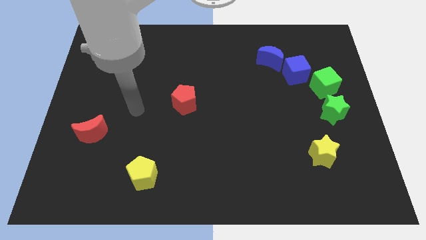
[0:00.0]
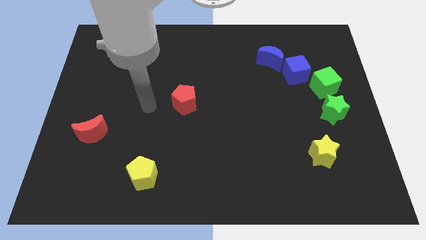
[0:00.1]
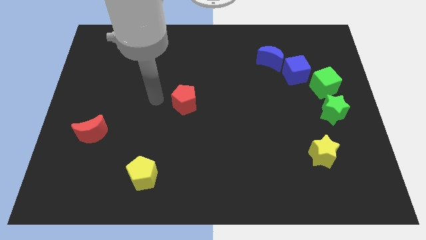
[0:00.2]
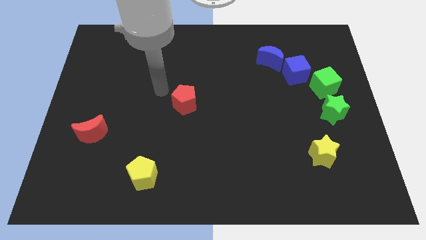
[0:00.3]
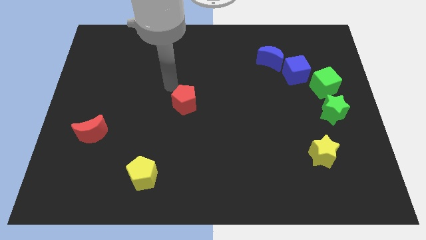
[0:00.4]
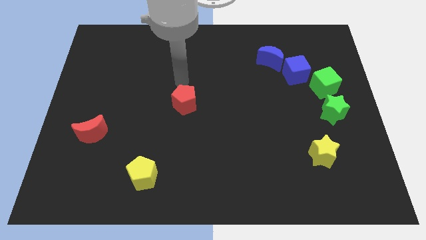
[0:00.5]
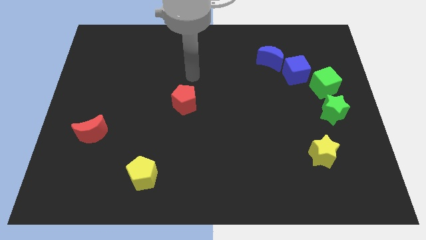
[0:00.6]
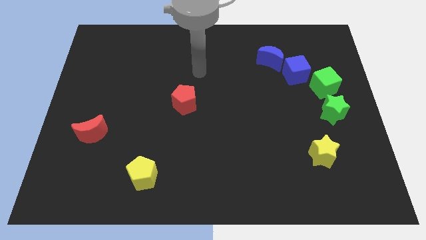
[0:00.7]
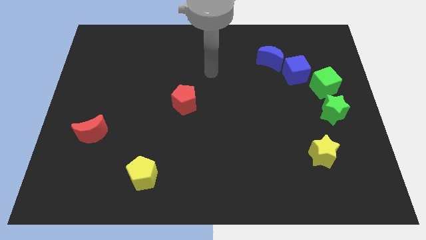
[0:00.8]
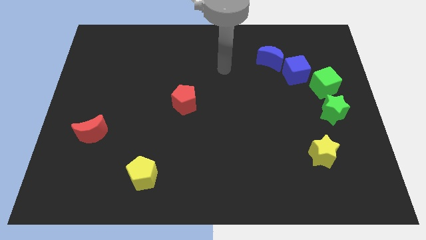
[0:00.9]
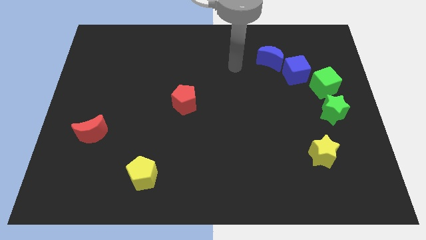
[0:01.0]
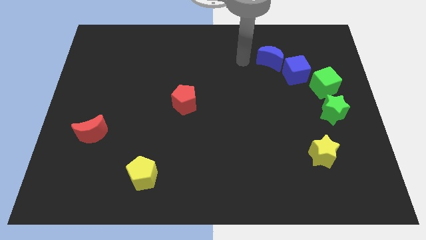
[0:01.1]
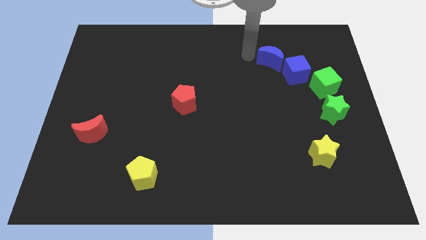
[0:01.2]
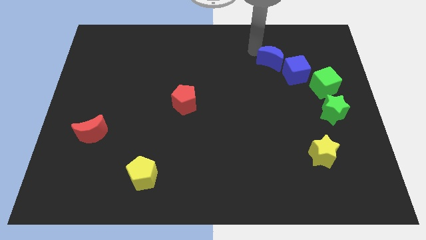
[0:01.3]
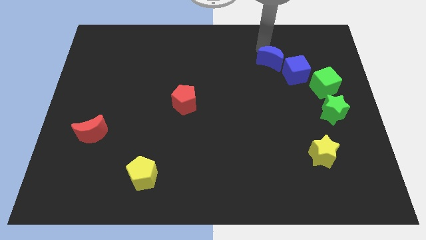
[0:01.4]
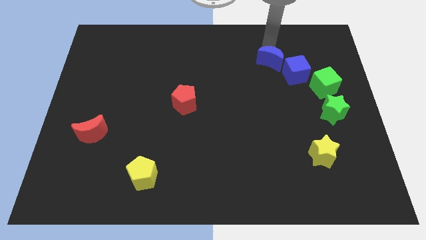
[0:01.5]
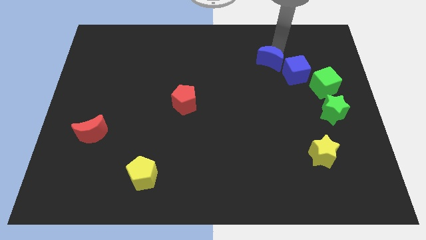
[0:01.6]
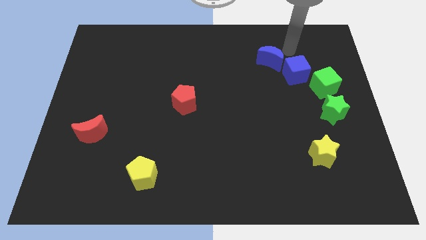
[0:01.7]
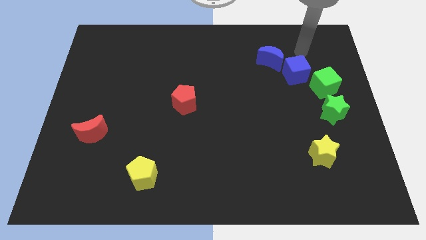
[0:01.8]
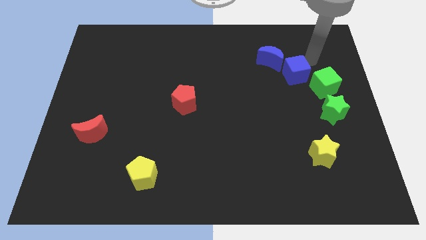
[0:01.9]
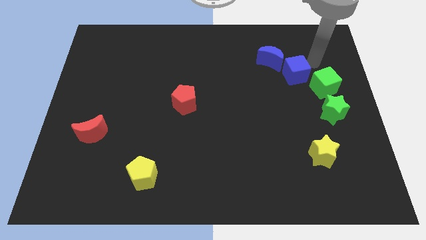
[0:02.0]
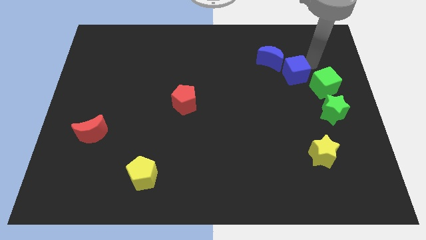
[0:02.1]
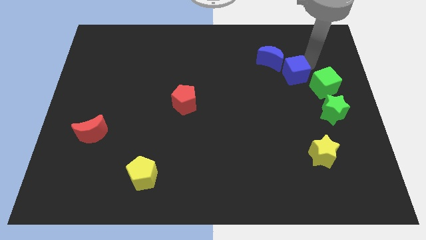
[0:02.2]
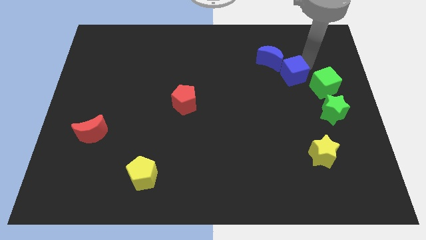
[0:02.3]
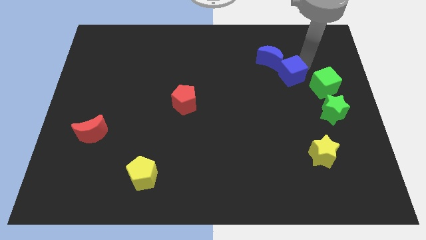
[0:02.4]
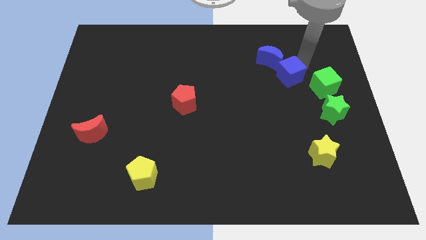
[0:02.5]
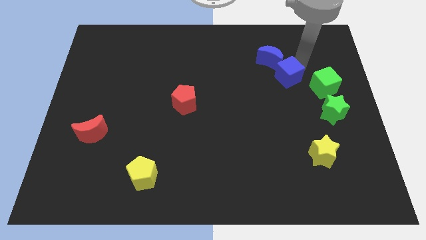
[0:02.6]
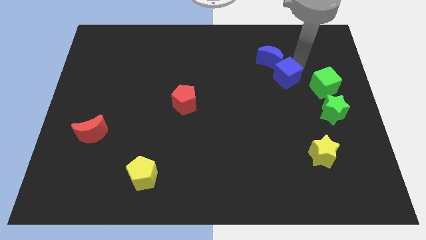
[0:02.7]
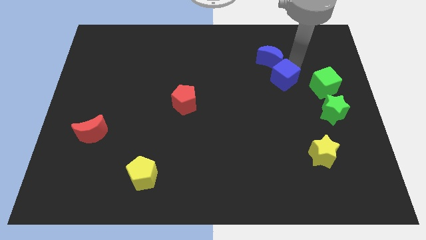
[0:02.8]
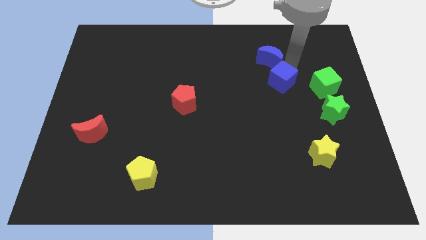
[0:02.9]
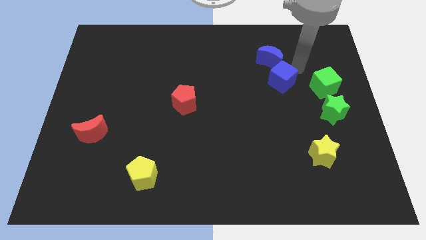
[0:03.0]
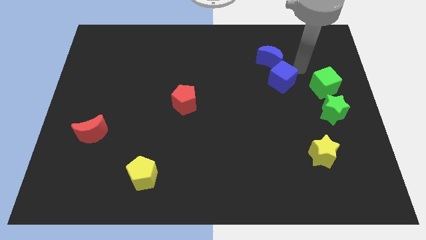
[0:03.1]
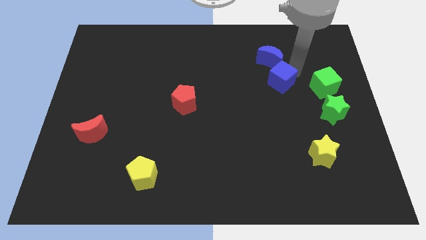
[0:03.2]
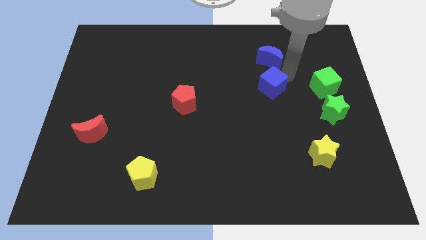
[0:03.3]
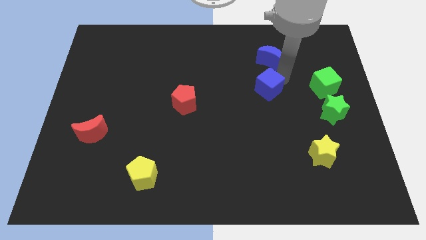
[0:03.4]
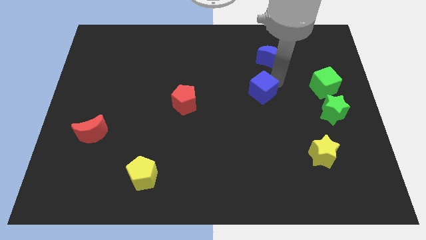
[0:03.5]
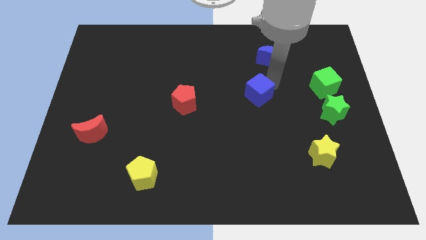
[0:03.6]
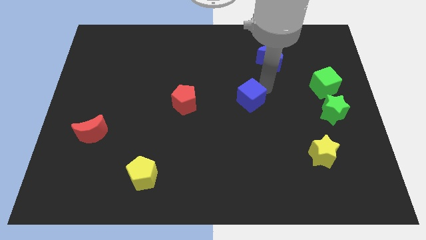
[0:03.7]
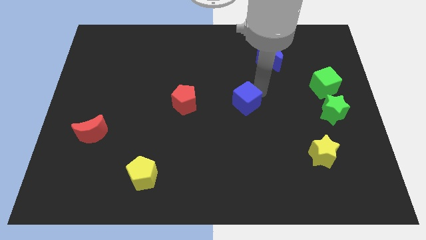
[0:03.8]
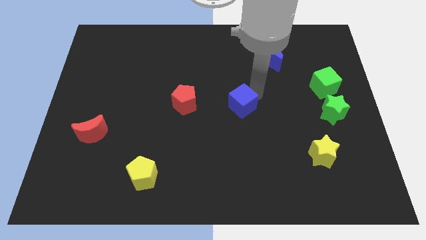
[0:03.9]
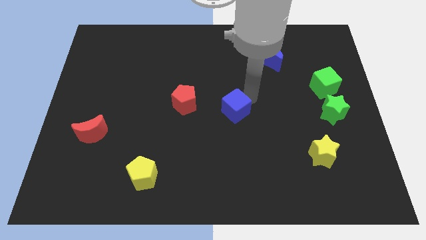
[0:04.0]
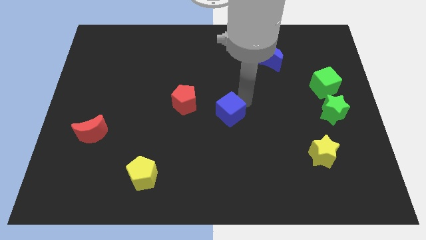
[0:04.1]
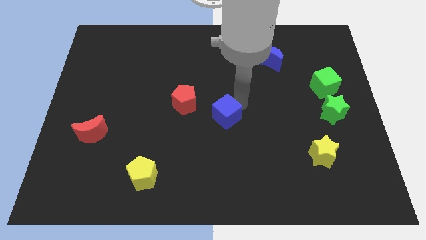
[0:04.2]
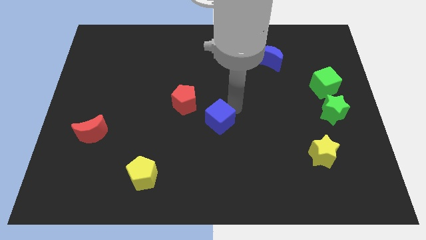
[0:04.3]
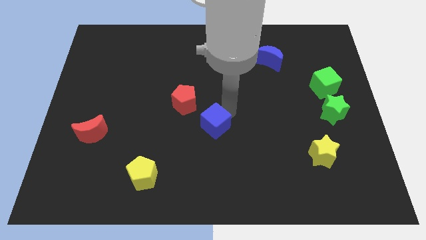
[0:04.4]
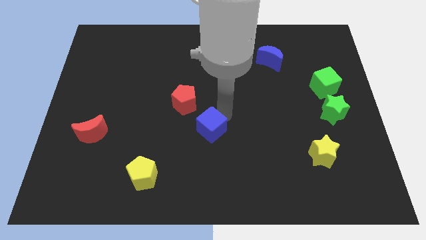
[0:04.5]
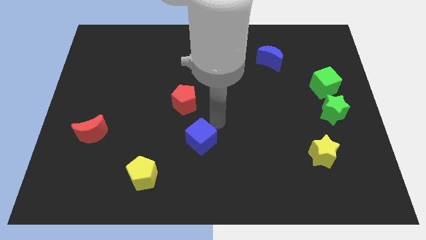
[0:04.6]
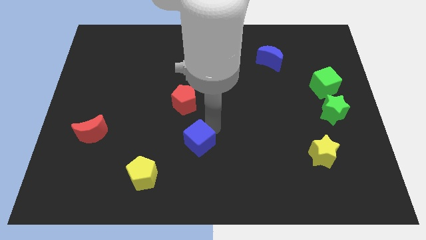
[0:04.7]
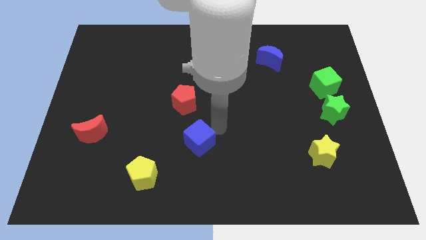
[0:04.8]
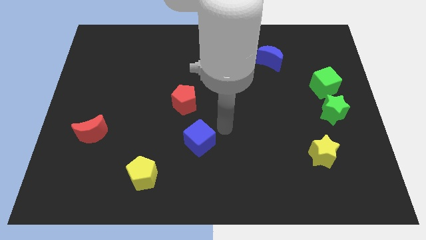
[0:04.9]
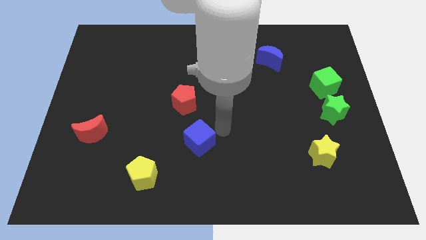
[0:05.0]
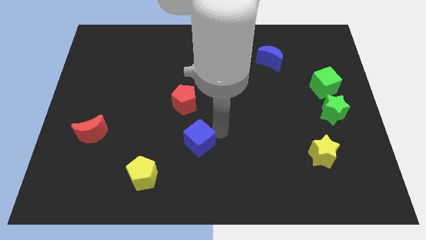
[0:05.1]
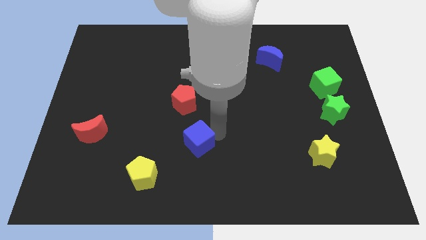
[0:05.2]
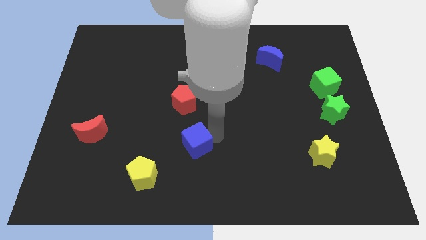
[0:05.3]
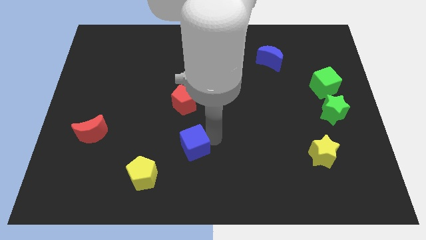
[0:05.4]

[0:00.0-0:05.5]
put the blue cube diagonally up and to the right of the yellow pentagon

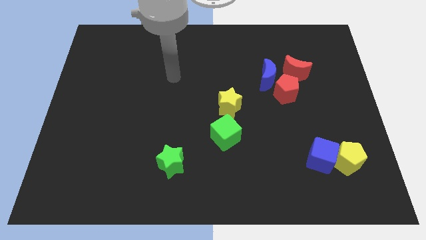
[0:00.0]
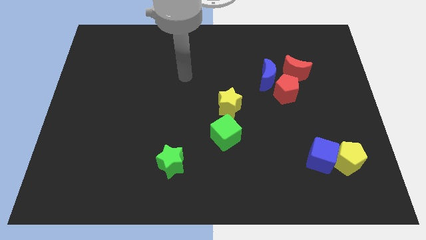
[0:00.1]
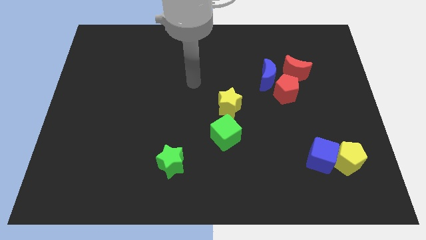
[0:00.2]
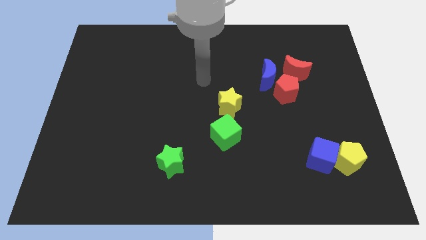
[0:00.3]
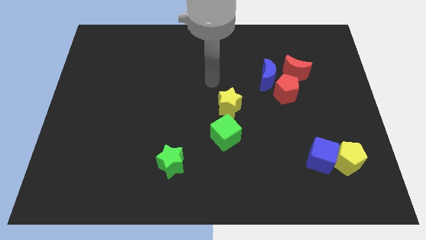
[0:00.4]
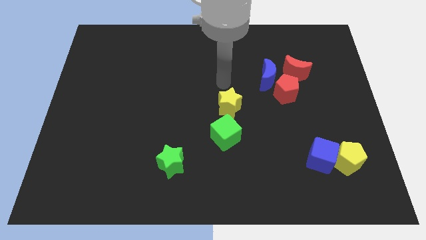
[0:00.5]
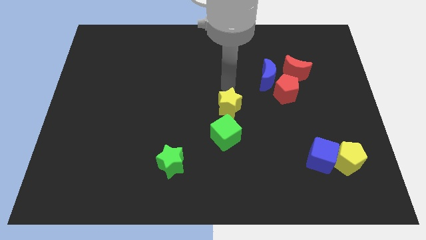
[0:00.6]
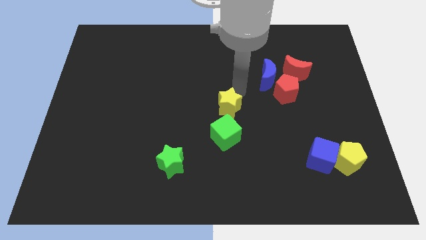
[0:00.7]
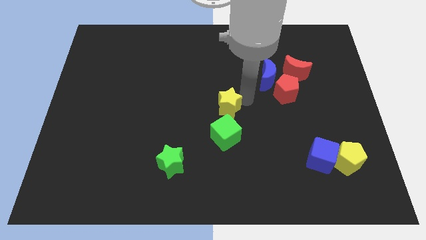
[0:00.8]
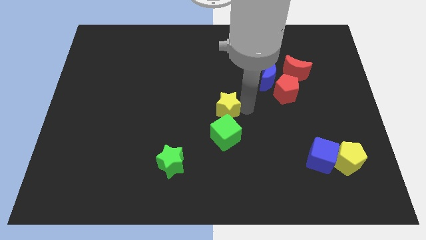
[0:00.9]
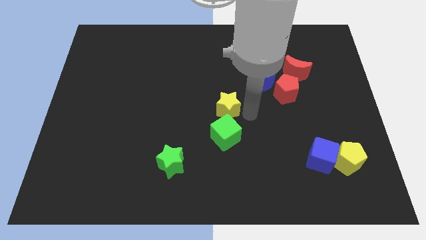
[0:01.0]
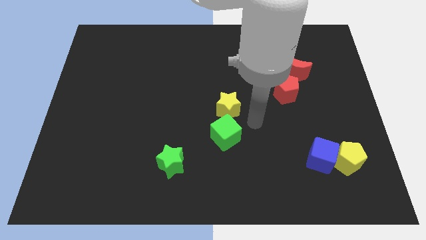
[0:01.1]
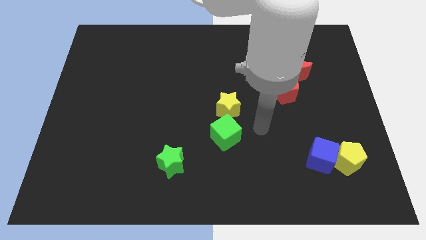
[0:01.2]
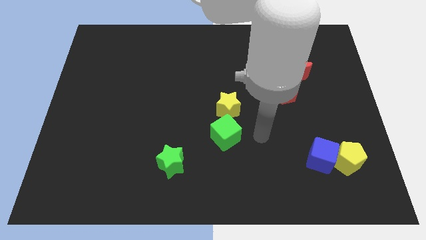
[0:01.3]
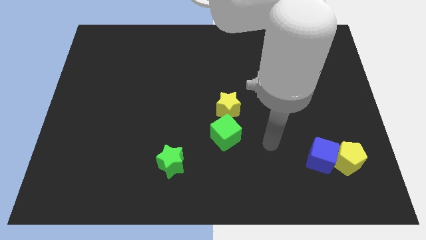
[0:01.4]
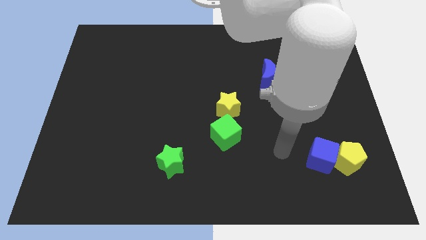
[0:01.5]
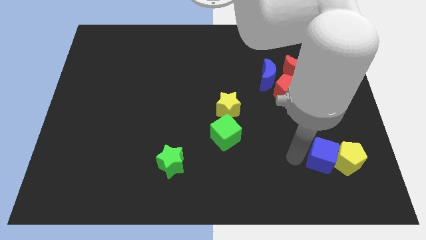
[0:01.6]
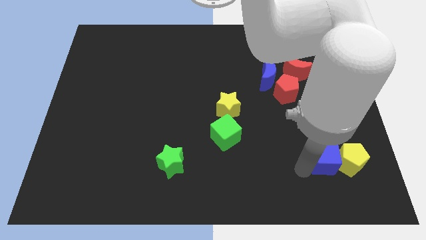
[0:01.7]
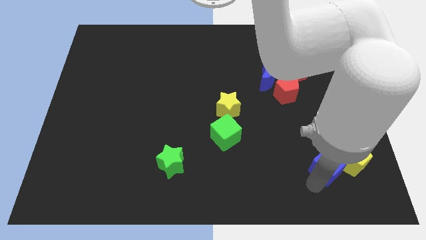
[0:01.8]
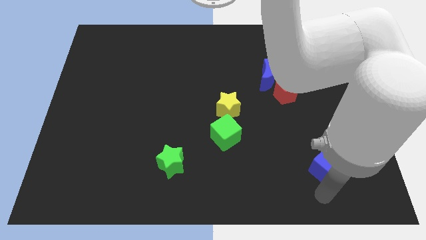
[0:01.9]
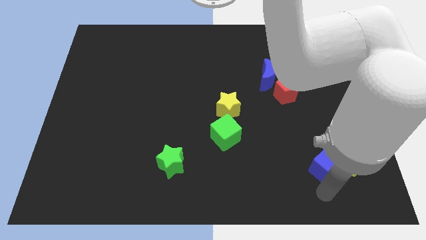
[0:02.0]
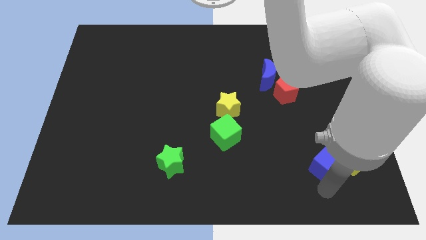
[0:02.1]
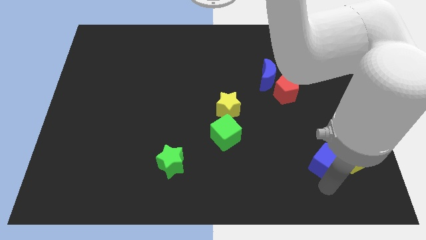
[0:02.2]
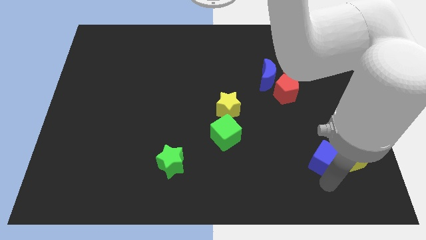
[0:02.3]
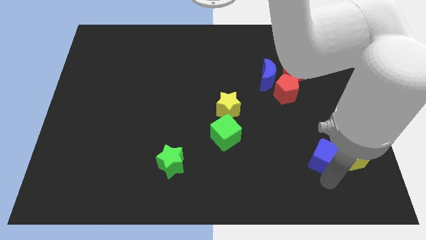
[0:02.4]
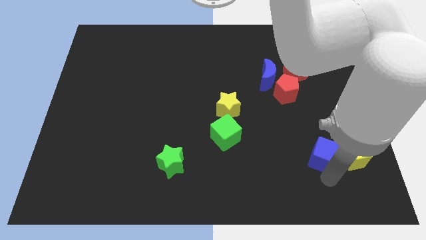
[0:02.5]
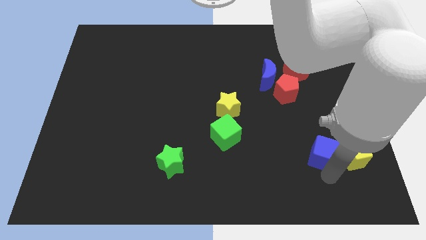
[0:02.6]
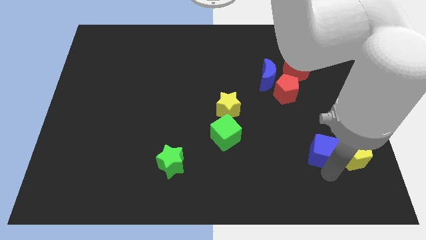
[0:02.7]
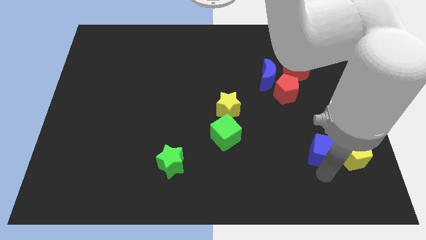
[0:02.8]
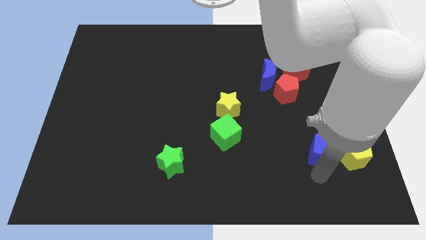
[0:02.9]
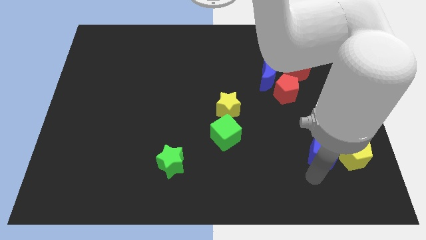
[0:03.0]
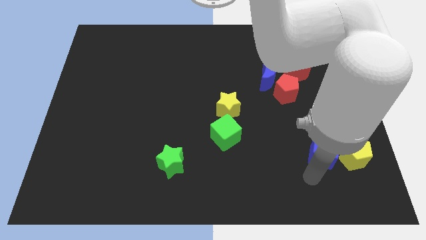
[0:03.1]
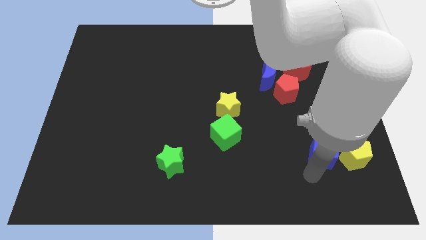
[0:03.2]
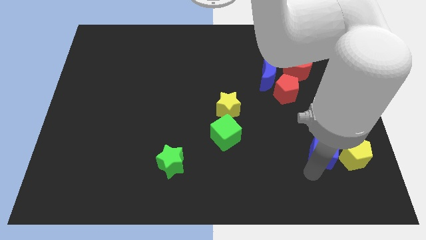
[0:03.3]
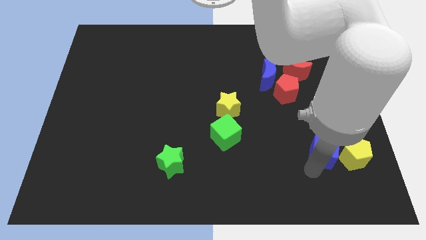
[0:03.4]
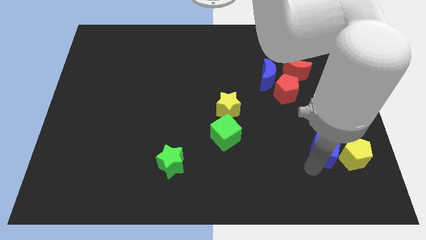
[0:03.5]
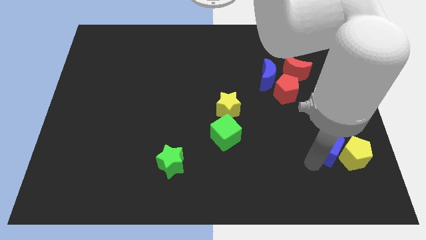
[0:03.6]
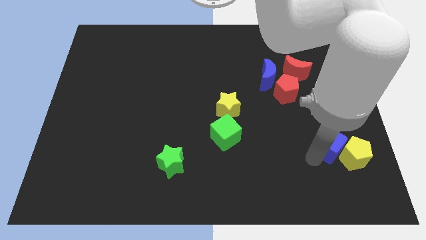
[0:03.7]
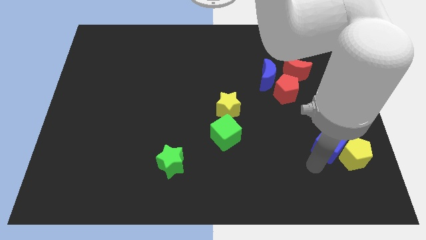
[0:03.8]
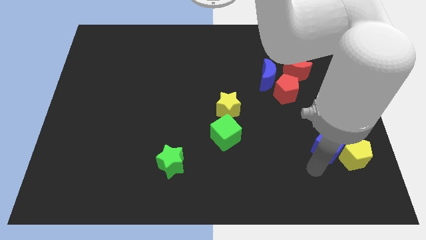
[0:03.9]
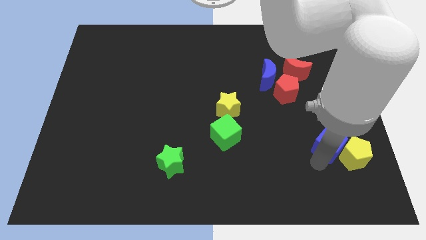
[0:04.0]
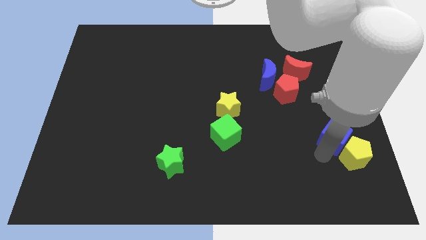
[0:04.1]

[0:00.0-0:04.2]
move the blue cube to the top side of the yellow pentagon
